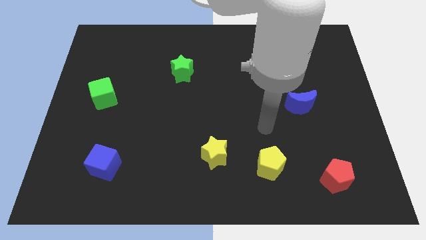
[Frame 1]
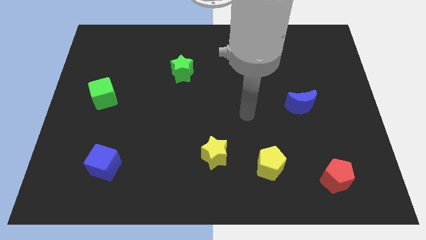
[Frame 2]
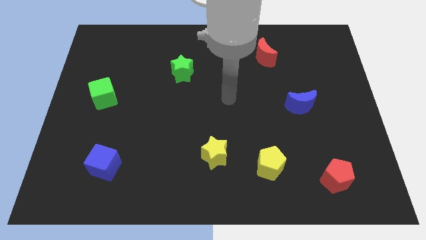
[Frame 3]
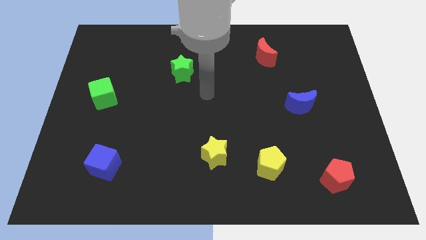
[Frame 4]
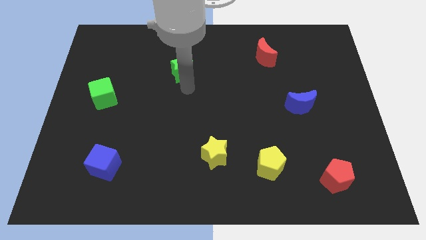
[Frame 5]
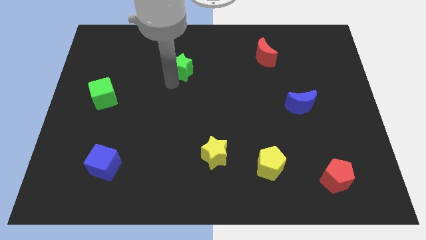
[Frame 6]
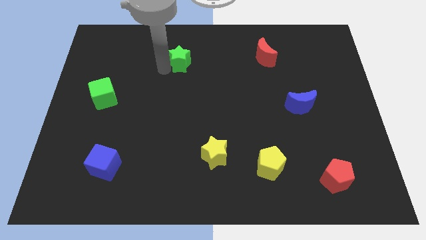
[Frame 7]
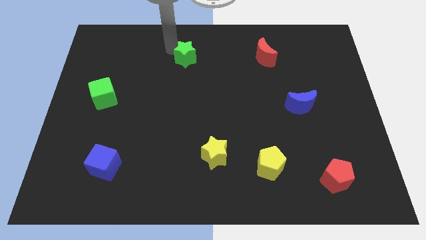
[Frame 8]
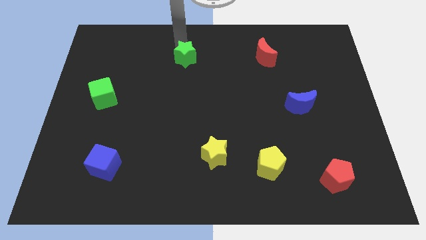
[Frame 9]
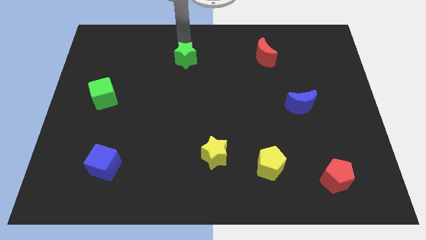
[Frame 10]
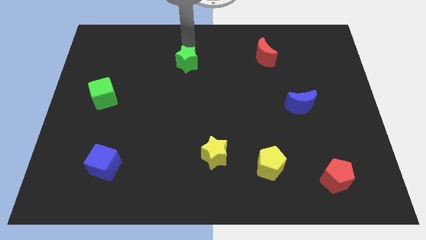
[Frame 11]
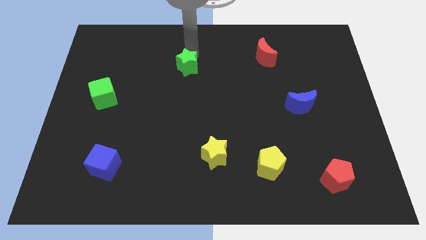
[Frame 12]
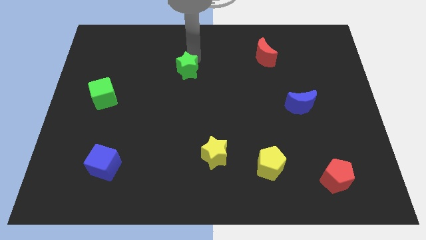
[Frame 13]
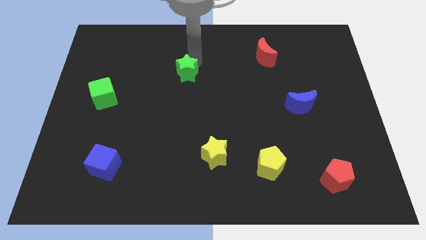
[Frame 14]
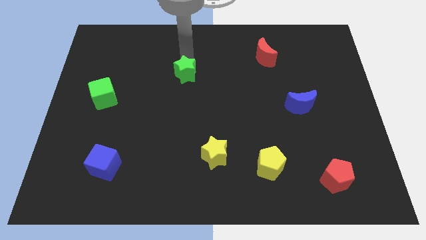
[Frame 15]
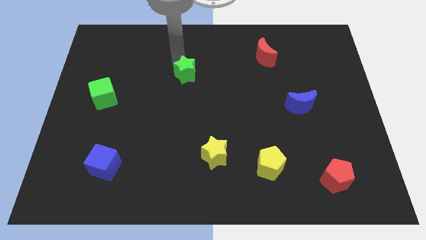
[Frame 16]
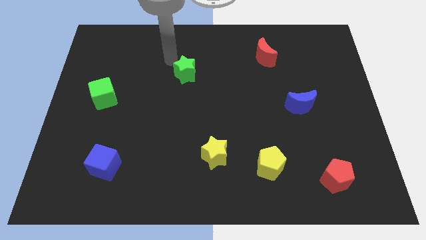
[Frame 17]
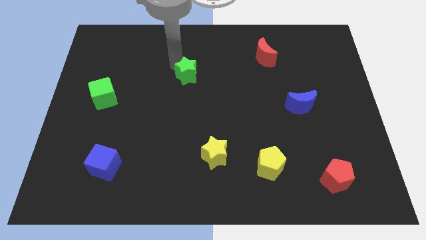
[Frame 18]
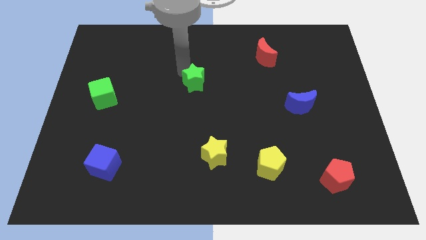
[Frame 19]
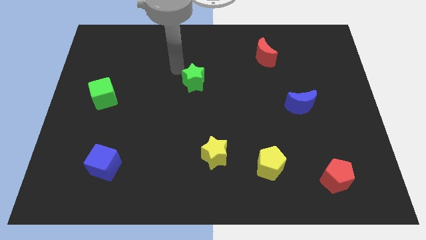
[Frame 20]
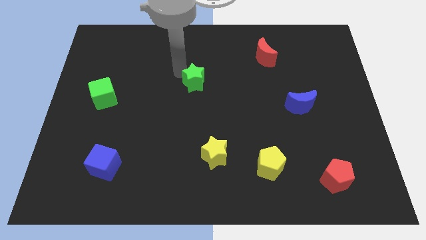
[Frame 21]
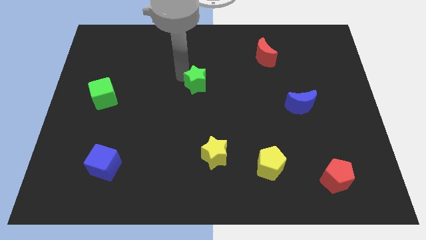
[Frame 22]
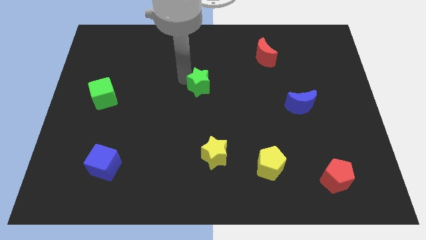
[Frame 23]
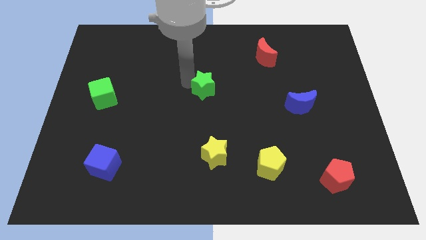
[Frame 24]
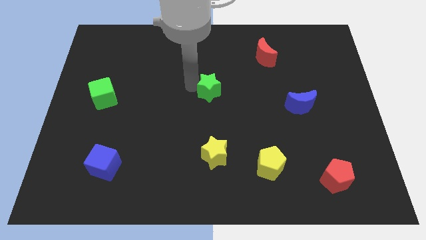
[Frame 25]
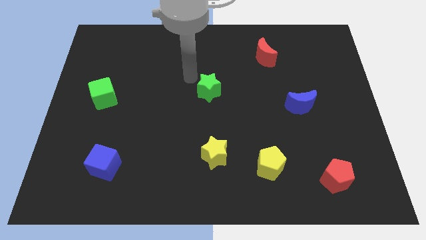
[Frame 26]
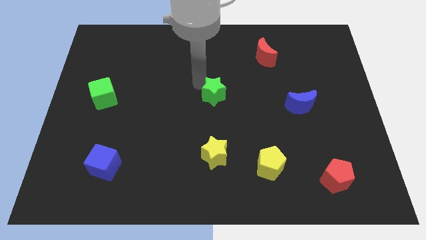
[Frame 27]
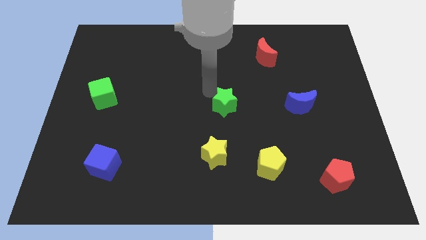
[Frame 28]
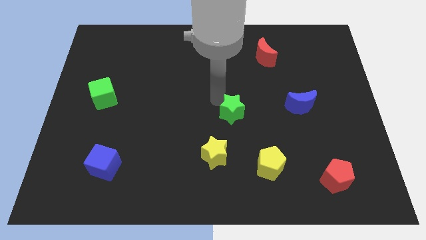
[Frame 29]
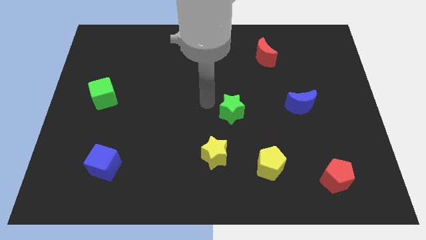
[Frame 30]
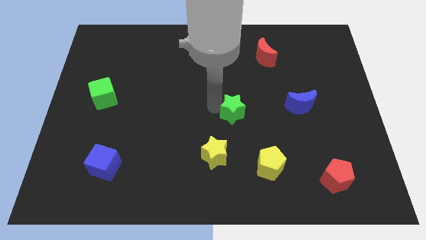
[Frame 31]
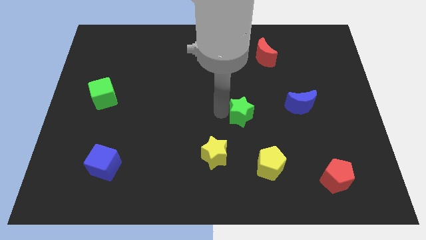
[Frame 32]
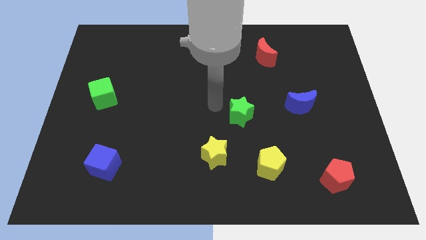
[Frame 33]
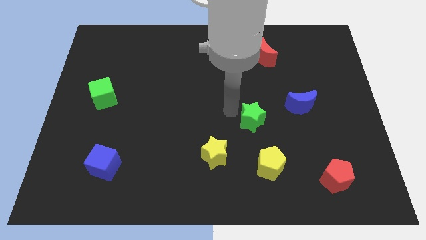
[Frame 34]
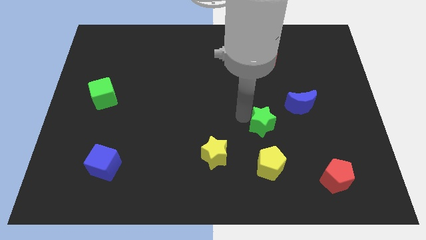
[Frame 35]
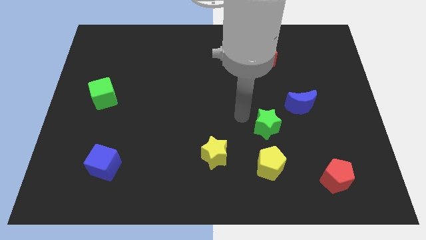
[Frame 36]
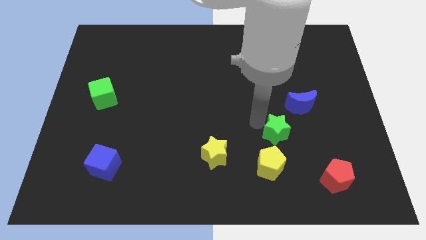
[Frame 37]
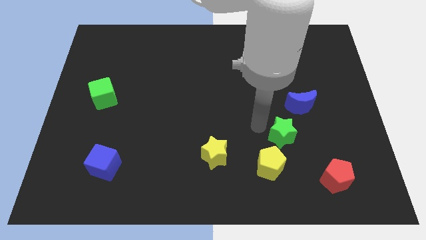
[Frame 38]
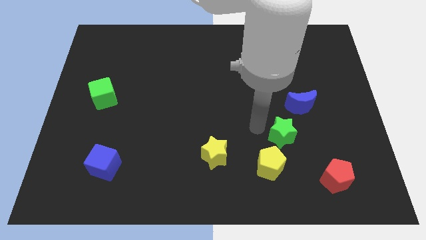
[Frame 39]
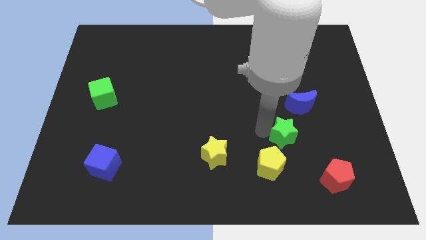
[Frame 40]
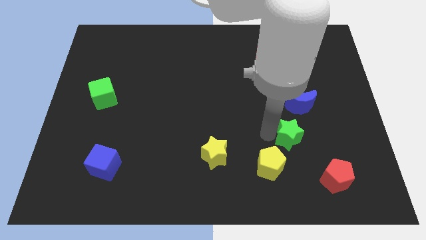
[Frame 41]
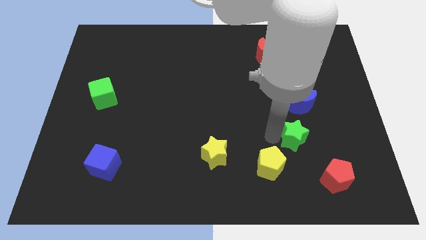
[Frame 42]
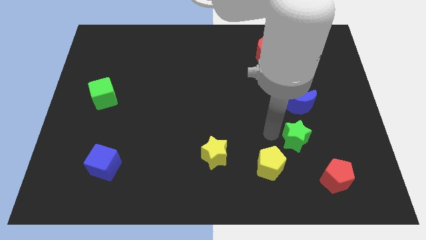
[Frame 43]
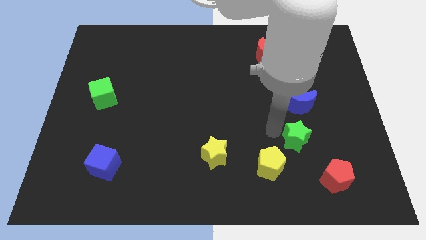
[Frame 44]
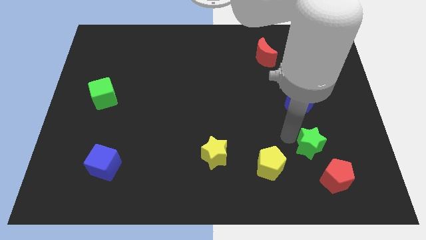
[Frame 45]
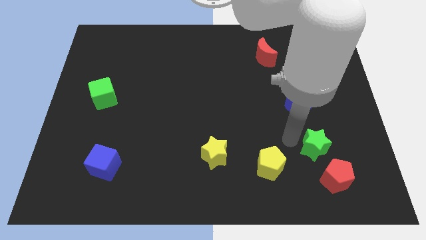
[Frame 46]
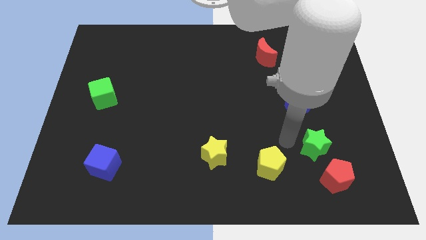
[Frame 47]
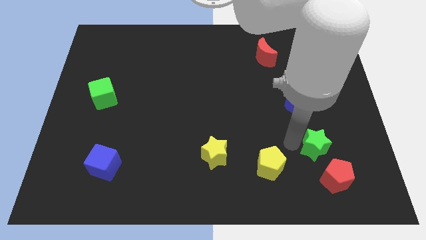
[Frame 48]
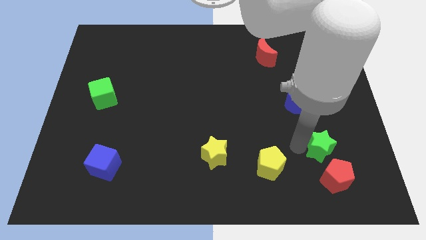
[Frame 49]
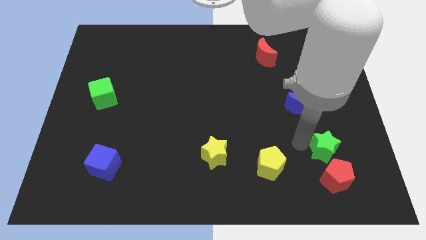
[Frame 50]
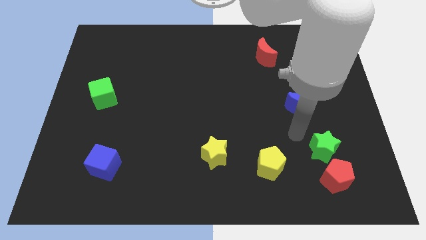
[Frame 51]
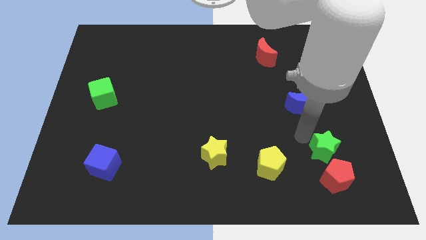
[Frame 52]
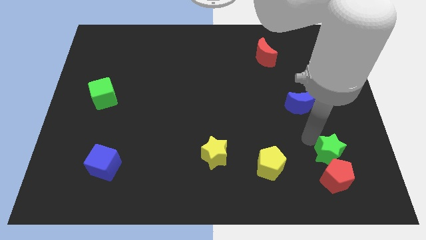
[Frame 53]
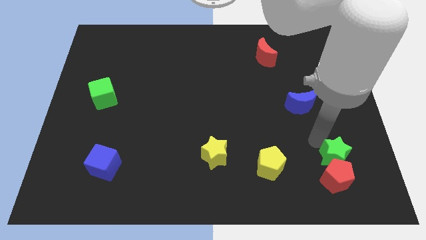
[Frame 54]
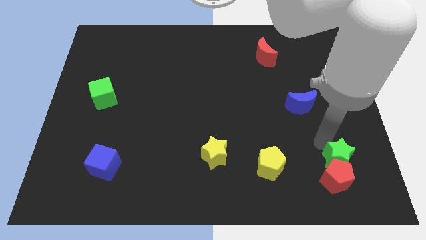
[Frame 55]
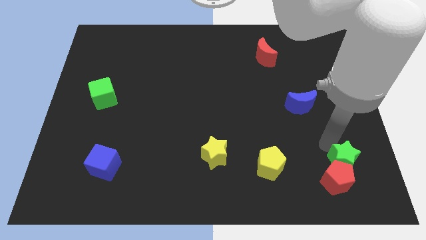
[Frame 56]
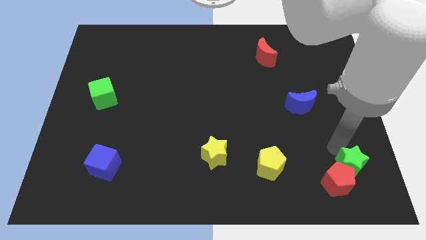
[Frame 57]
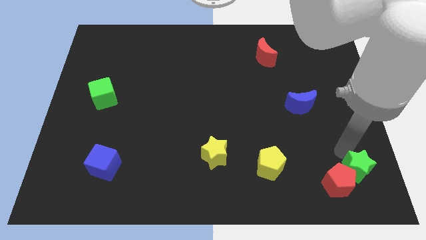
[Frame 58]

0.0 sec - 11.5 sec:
move the green star to the bottom right

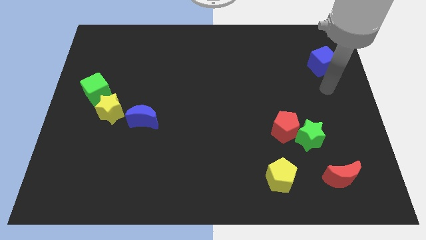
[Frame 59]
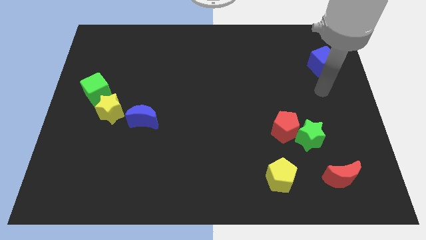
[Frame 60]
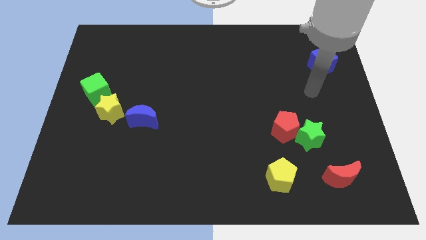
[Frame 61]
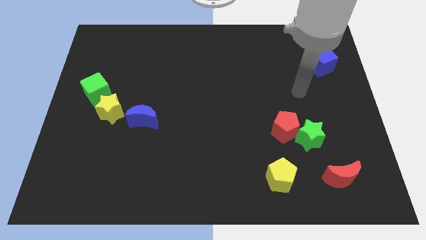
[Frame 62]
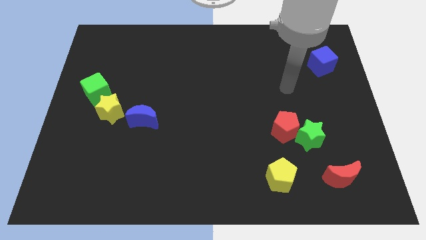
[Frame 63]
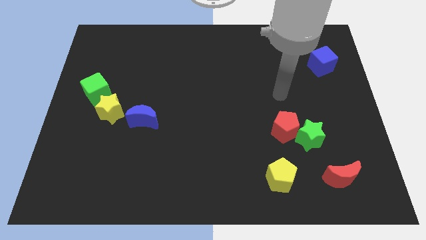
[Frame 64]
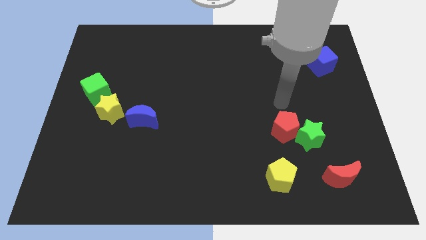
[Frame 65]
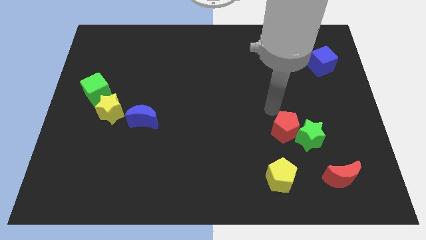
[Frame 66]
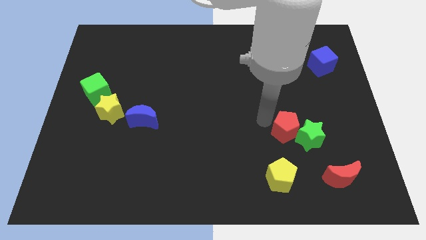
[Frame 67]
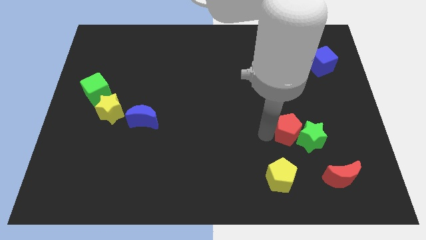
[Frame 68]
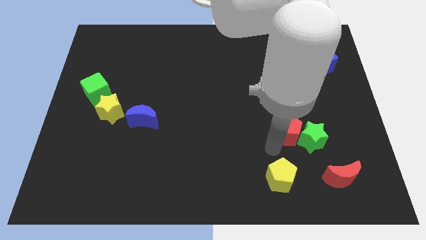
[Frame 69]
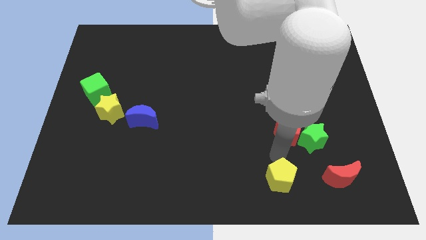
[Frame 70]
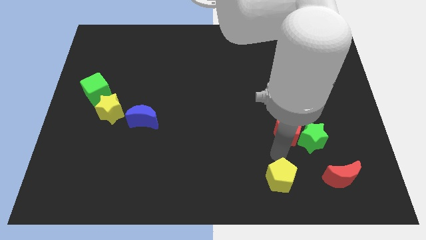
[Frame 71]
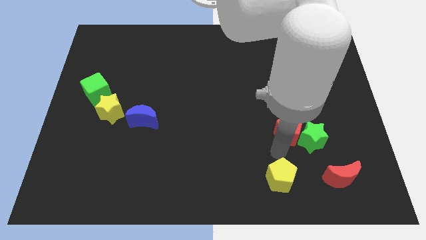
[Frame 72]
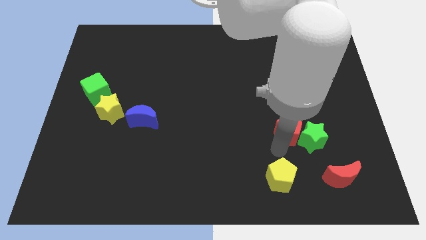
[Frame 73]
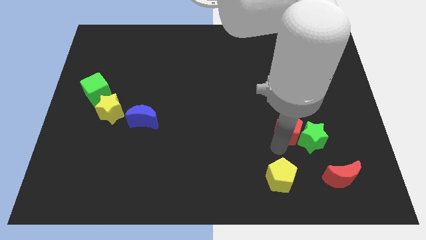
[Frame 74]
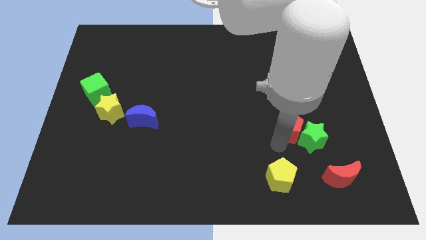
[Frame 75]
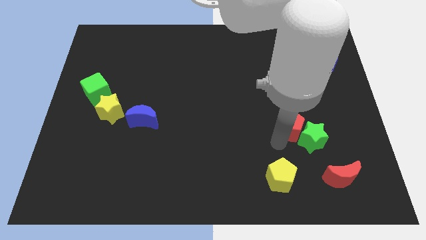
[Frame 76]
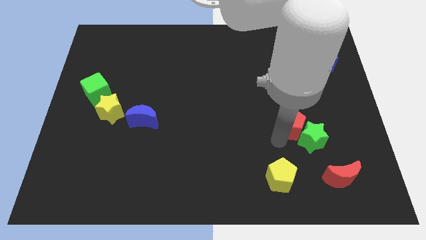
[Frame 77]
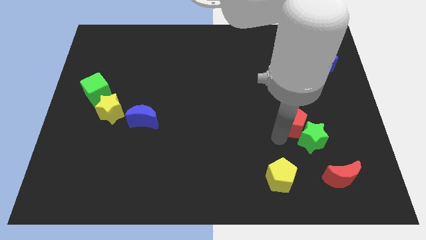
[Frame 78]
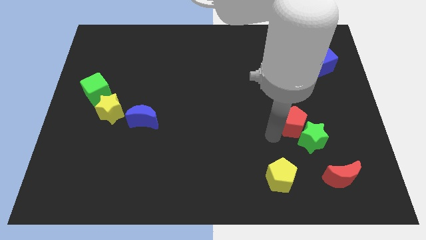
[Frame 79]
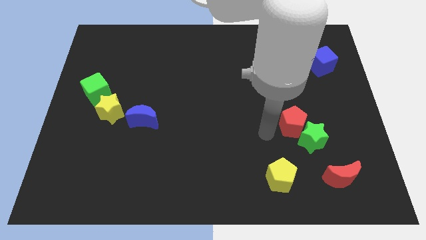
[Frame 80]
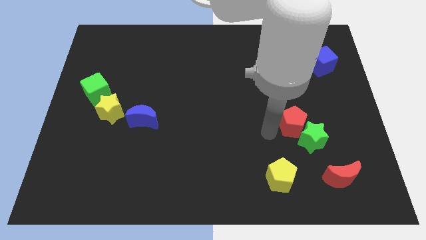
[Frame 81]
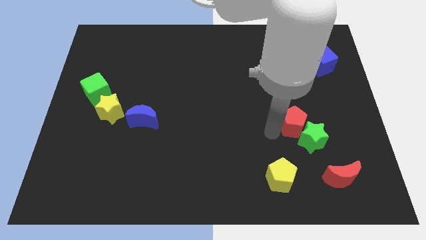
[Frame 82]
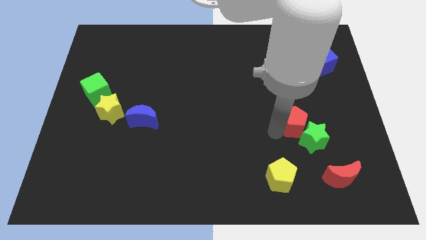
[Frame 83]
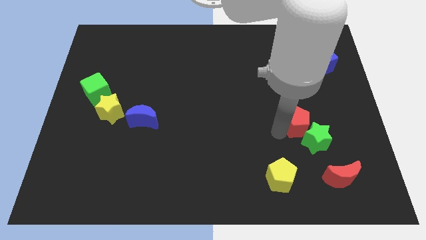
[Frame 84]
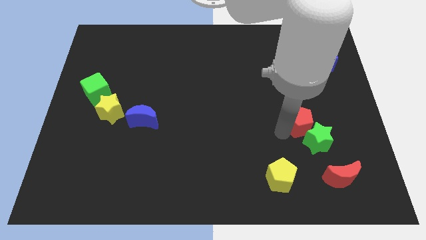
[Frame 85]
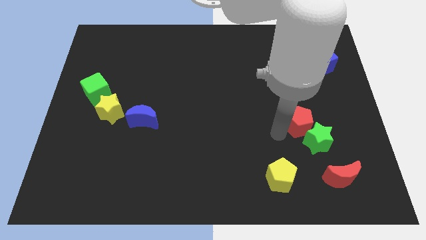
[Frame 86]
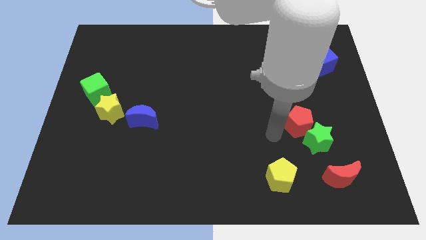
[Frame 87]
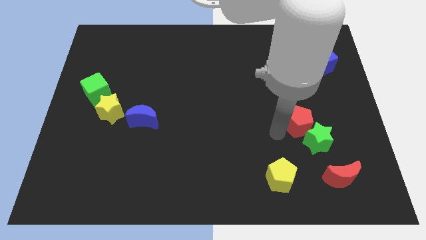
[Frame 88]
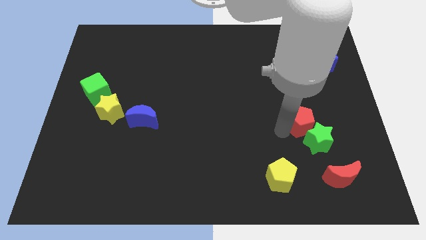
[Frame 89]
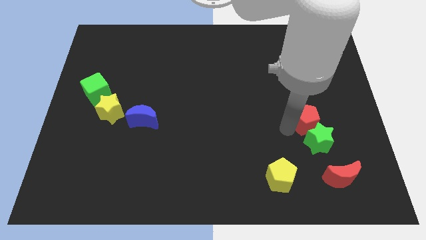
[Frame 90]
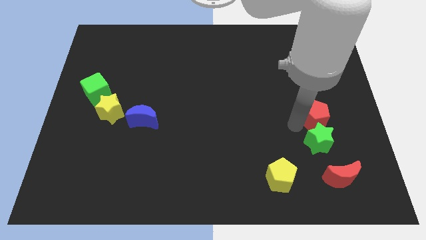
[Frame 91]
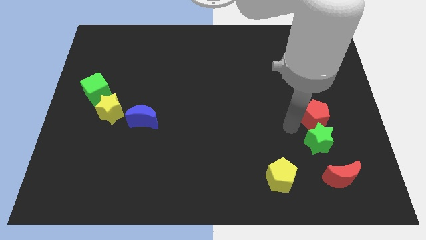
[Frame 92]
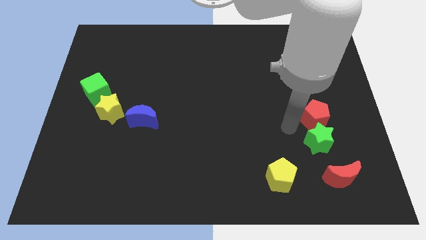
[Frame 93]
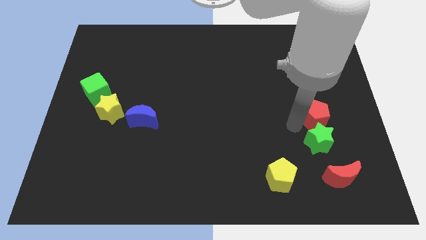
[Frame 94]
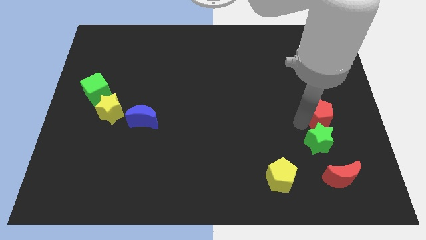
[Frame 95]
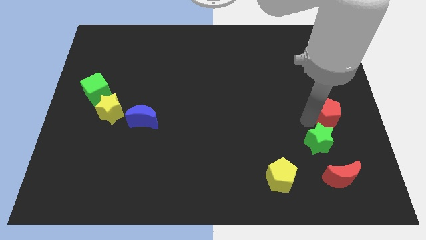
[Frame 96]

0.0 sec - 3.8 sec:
slide the red pentagon to the right side of the board
